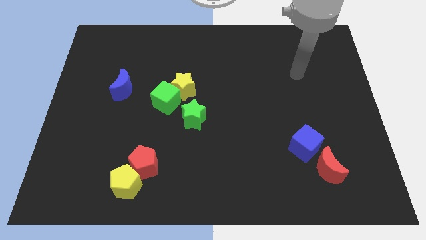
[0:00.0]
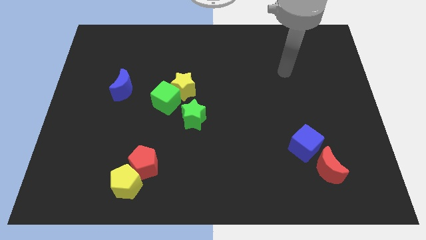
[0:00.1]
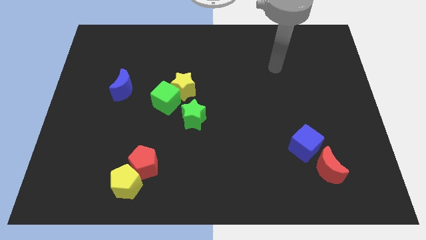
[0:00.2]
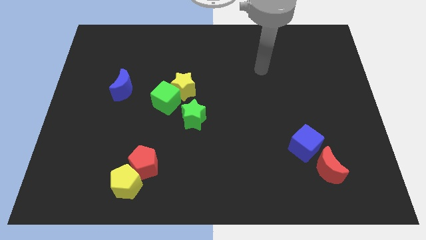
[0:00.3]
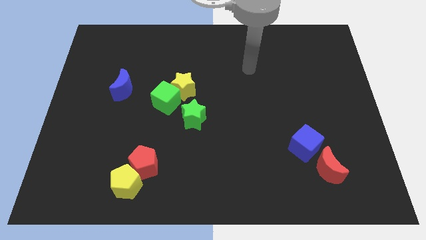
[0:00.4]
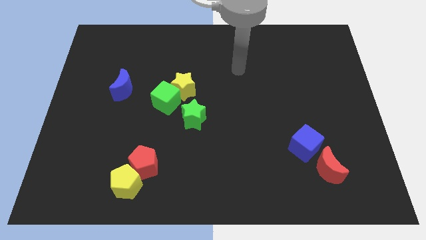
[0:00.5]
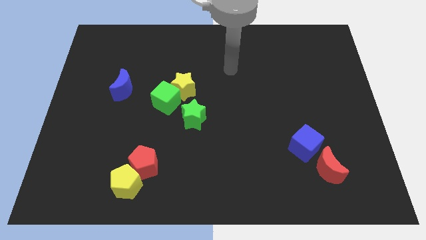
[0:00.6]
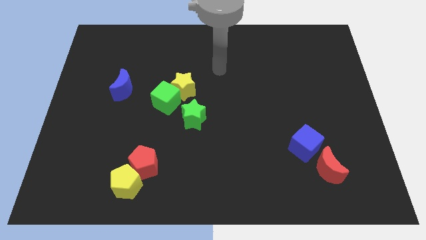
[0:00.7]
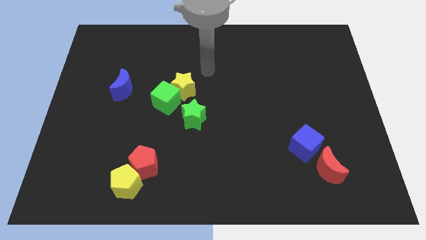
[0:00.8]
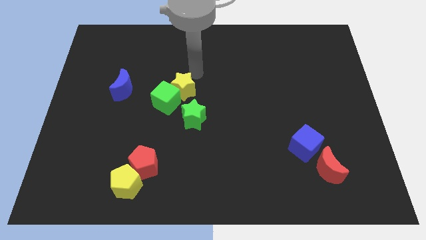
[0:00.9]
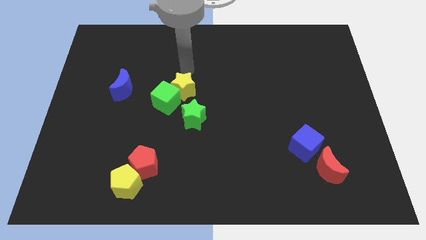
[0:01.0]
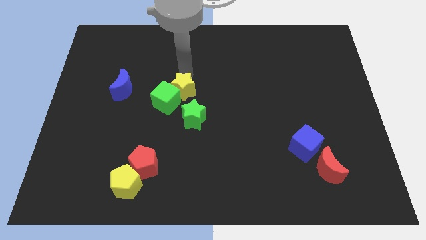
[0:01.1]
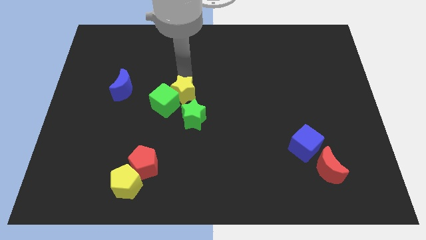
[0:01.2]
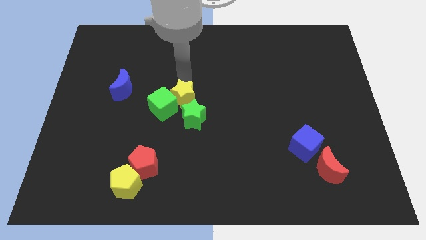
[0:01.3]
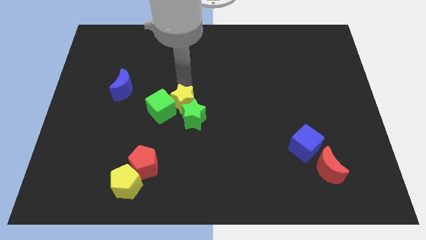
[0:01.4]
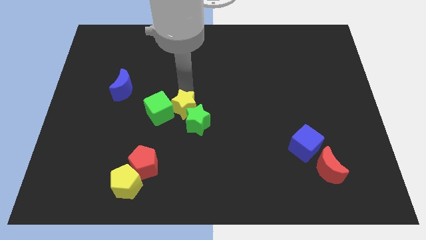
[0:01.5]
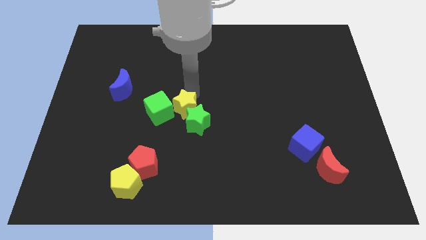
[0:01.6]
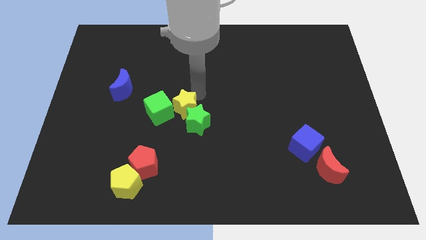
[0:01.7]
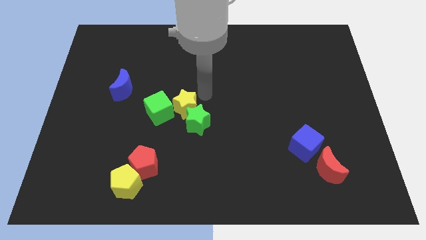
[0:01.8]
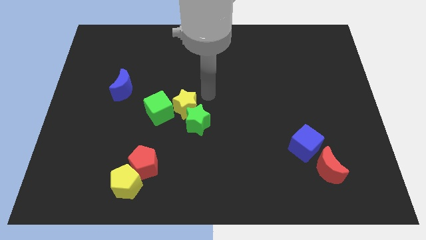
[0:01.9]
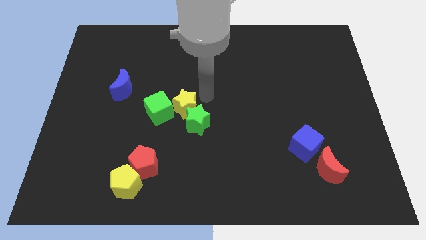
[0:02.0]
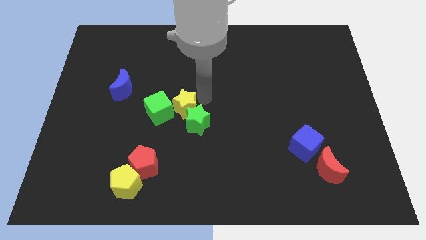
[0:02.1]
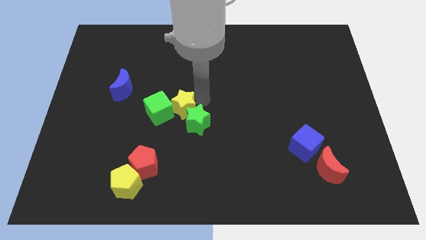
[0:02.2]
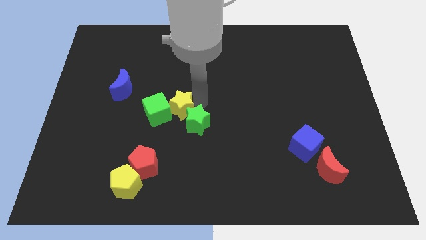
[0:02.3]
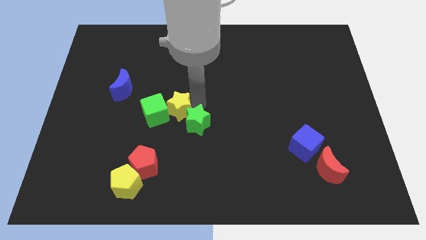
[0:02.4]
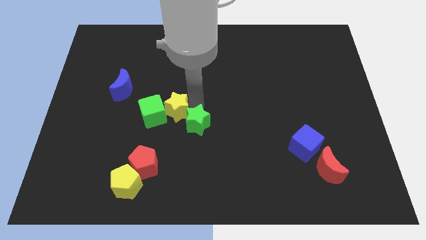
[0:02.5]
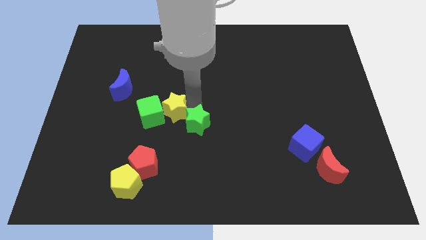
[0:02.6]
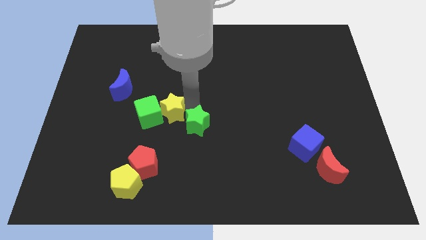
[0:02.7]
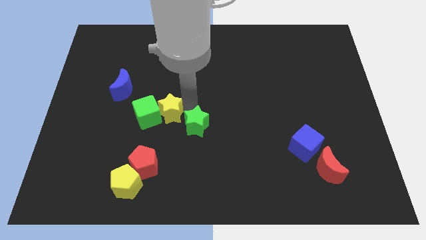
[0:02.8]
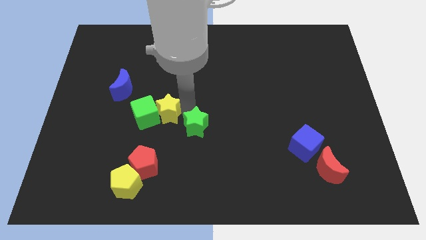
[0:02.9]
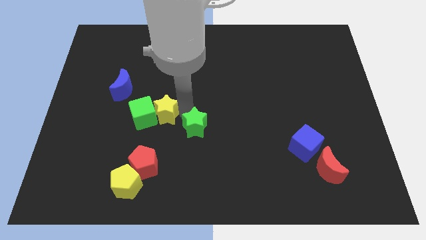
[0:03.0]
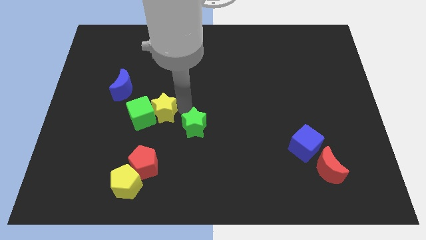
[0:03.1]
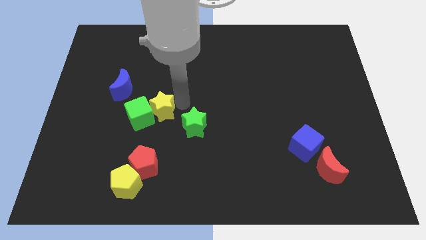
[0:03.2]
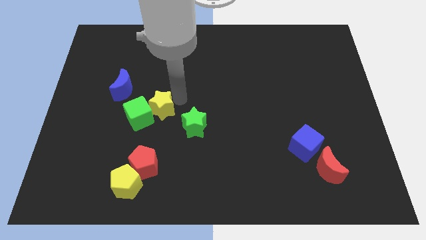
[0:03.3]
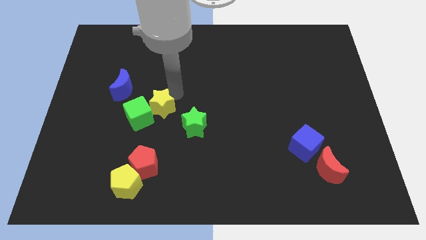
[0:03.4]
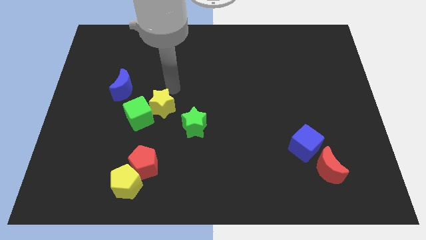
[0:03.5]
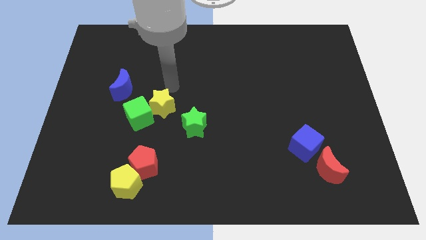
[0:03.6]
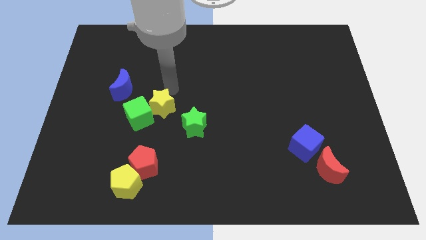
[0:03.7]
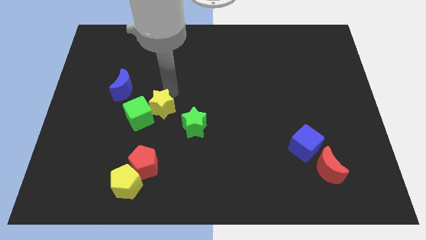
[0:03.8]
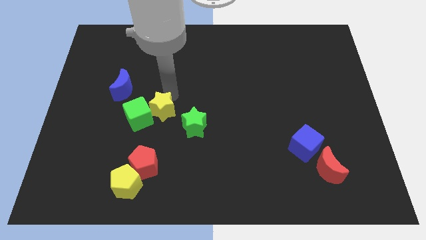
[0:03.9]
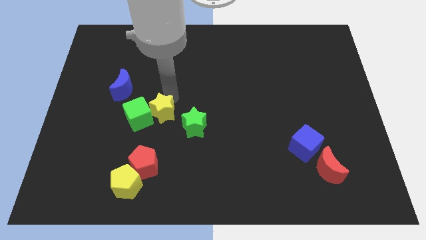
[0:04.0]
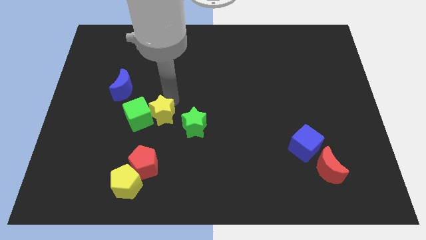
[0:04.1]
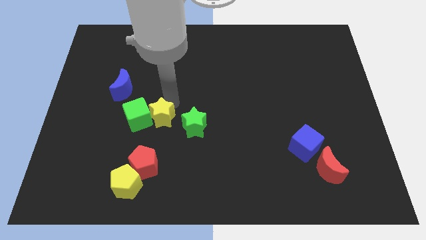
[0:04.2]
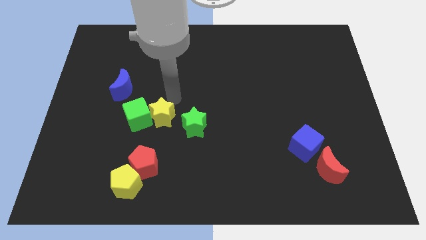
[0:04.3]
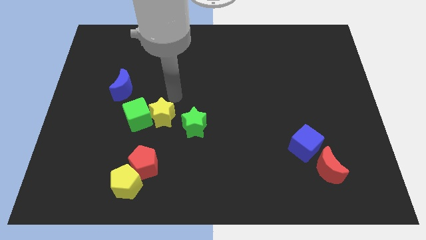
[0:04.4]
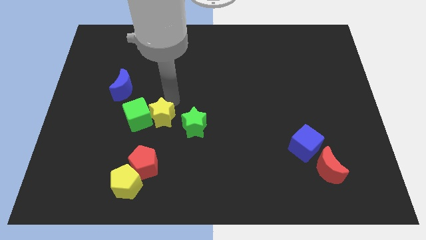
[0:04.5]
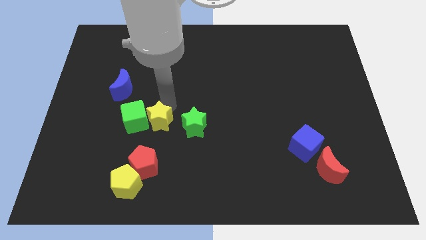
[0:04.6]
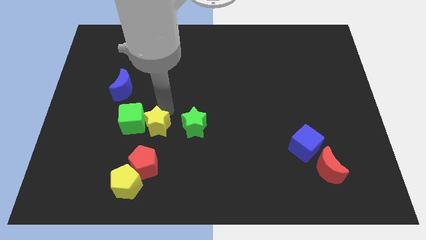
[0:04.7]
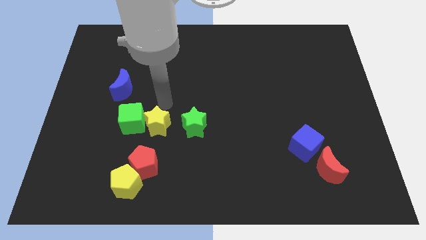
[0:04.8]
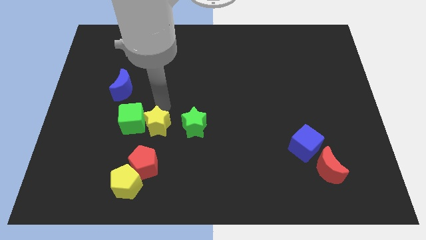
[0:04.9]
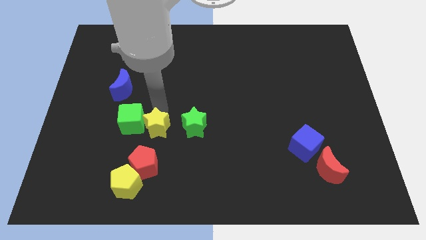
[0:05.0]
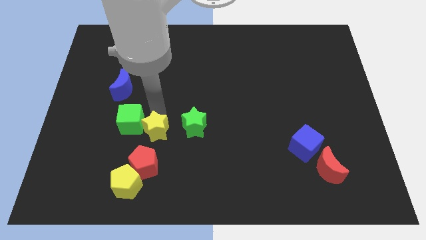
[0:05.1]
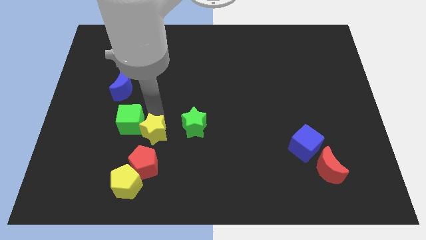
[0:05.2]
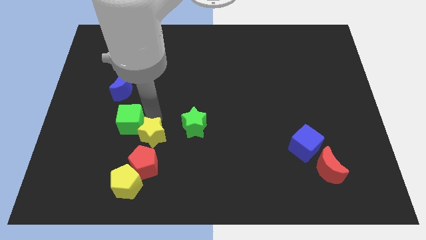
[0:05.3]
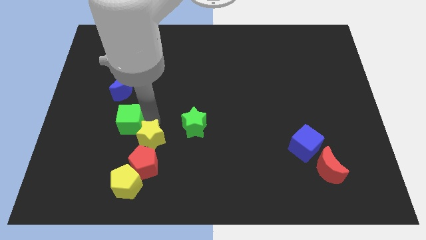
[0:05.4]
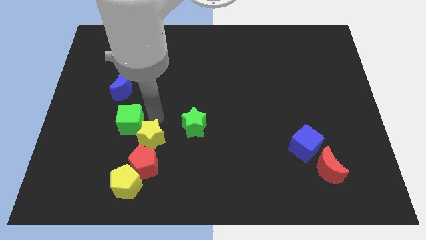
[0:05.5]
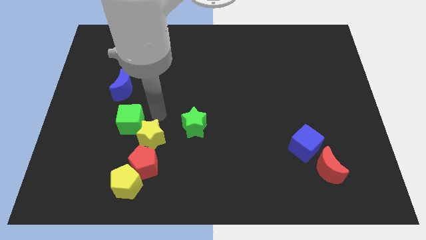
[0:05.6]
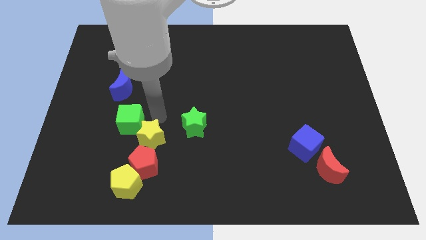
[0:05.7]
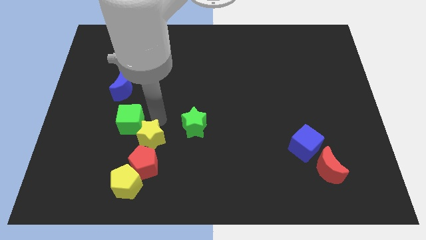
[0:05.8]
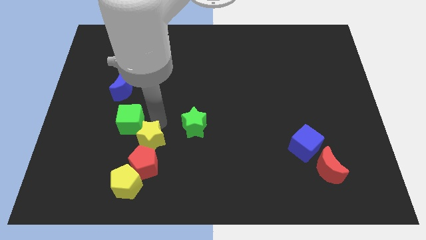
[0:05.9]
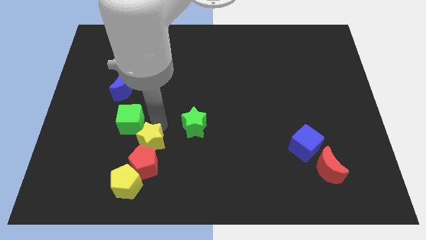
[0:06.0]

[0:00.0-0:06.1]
slide the yellow star next to the red pentagon

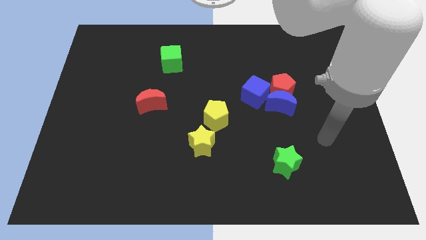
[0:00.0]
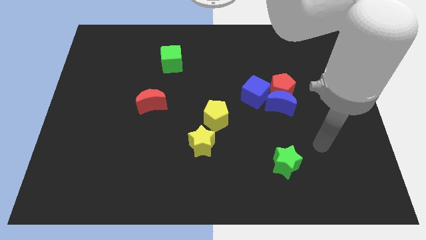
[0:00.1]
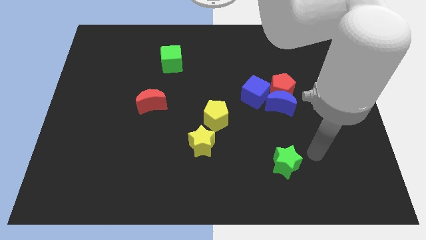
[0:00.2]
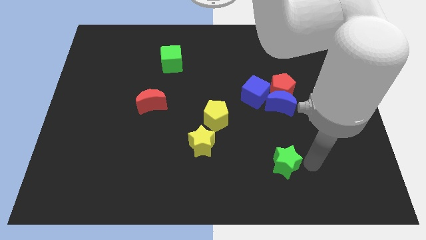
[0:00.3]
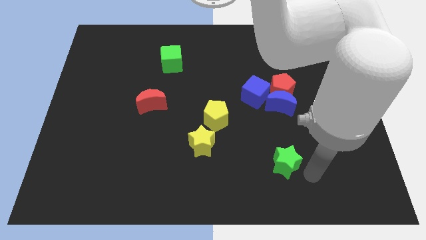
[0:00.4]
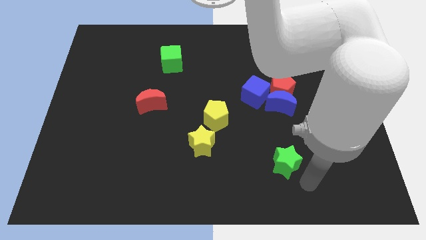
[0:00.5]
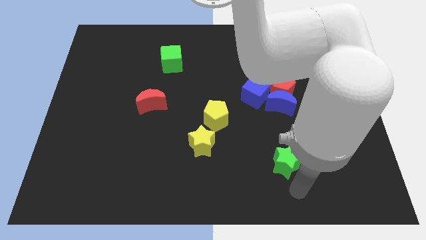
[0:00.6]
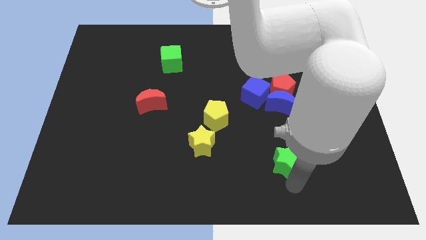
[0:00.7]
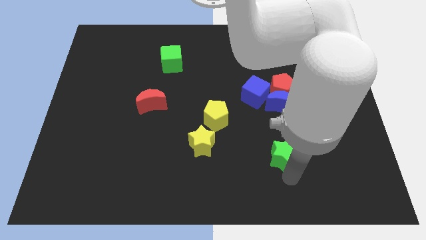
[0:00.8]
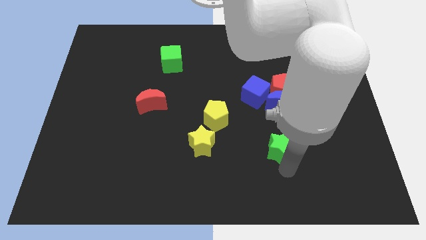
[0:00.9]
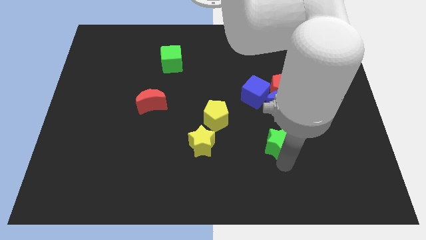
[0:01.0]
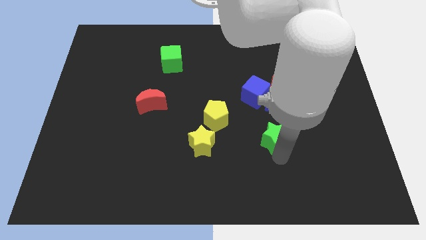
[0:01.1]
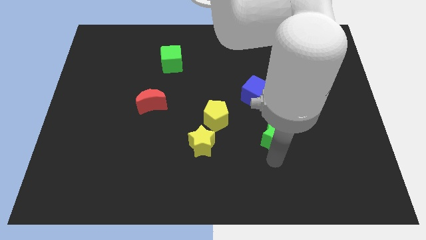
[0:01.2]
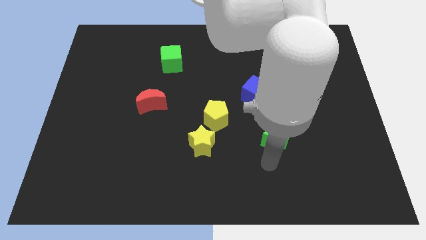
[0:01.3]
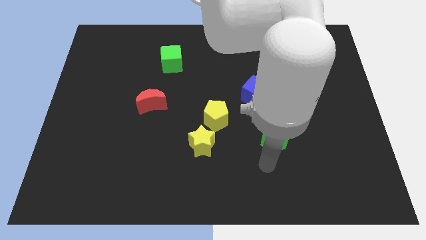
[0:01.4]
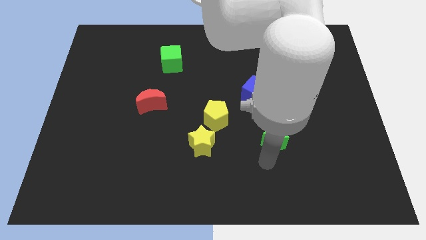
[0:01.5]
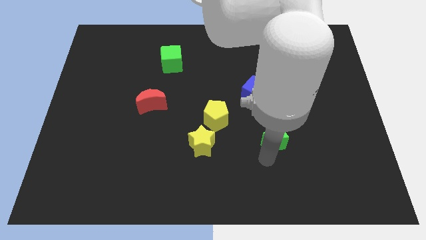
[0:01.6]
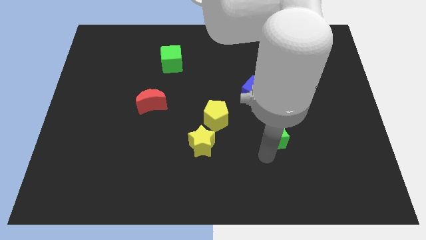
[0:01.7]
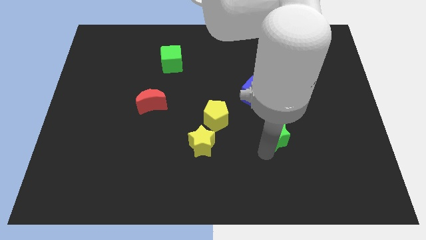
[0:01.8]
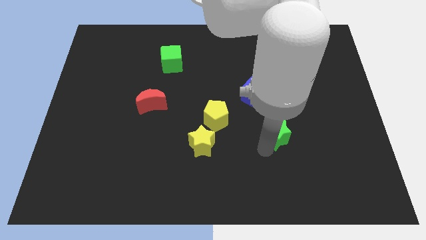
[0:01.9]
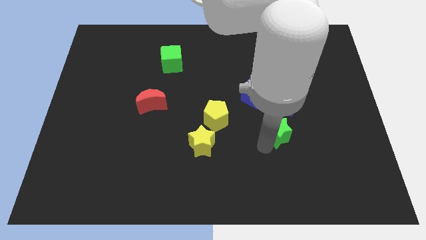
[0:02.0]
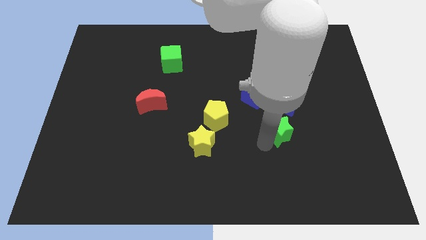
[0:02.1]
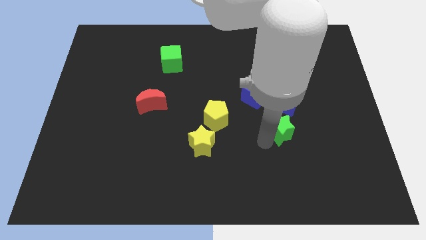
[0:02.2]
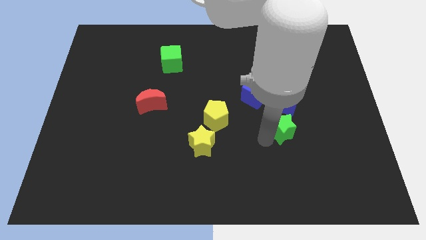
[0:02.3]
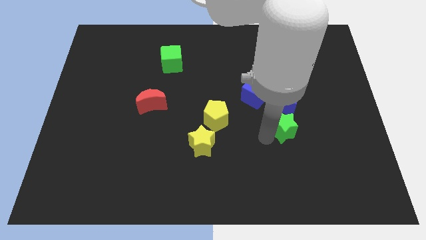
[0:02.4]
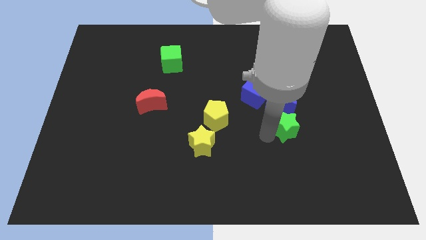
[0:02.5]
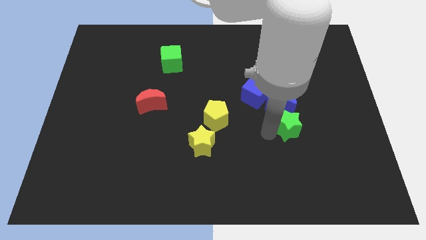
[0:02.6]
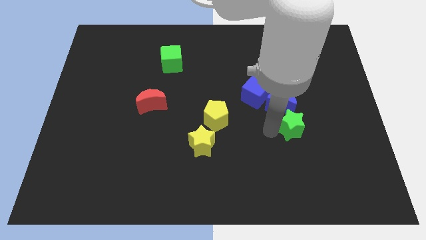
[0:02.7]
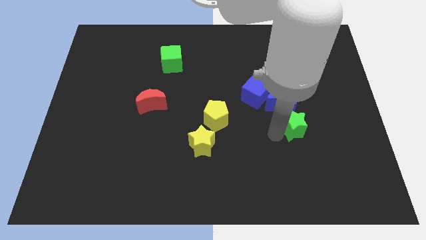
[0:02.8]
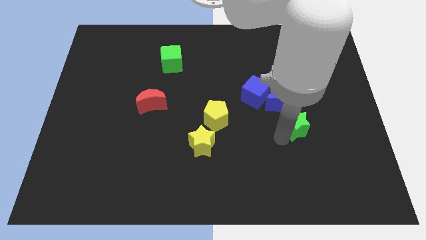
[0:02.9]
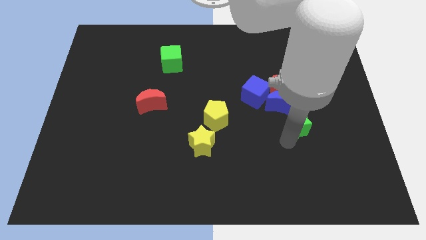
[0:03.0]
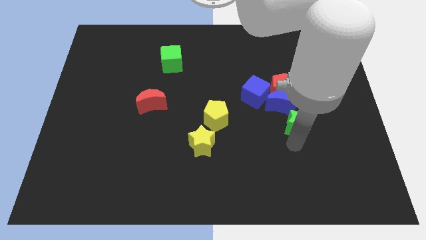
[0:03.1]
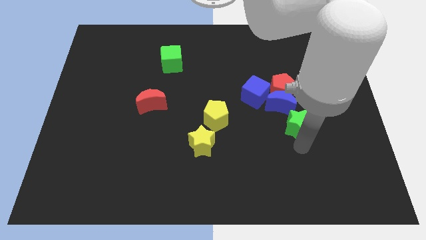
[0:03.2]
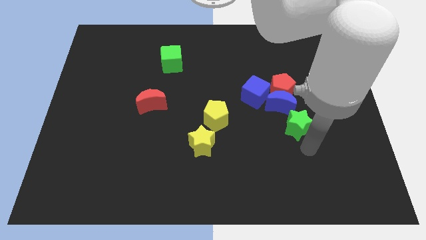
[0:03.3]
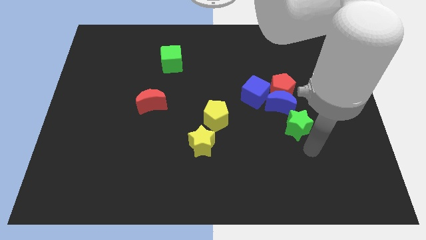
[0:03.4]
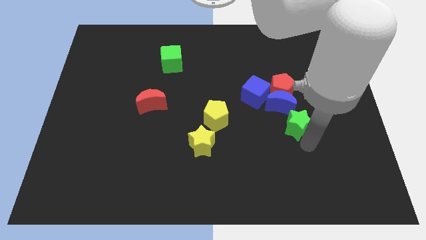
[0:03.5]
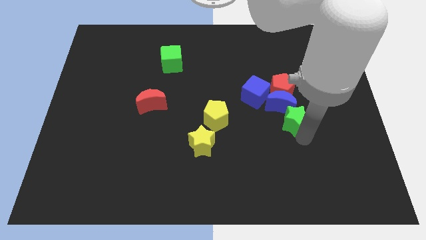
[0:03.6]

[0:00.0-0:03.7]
slide the green star towards the blue moon
